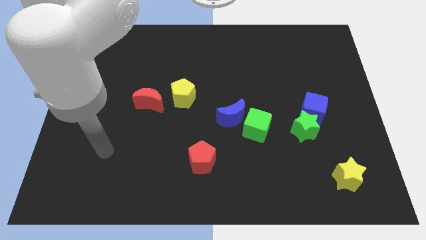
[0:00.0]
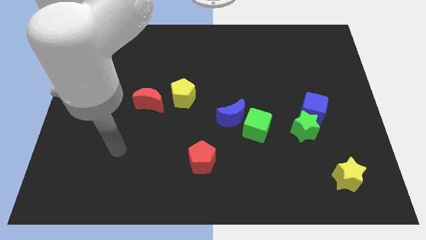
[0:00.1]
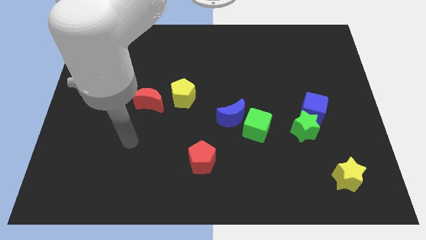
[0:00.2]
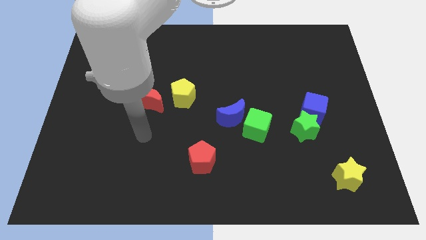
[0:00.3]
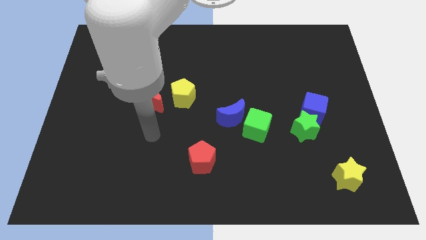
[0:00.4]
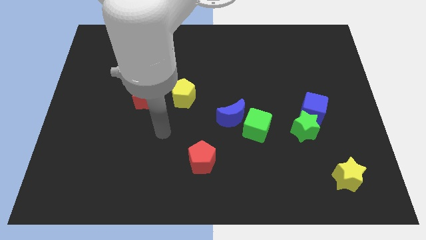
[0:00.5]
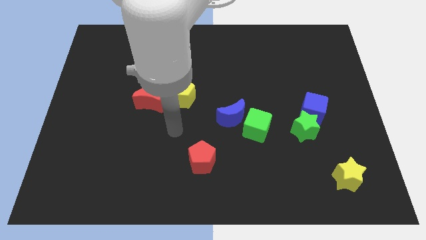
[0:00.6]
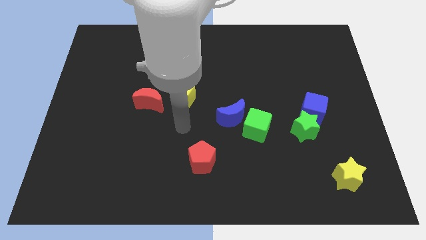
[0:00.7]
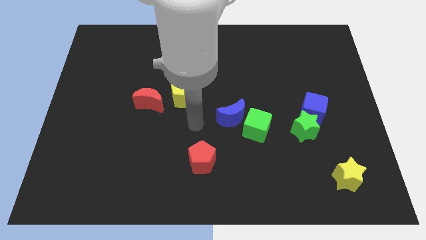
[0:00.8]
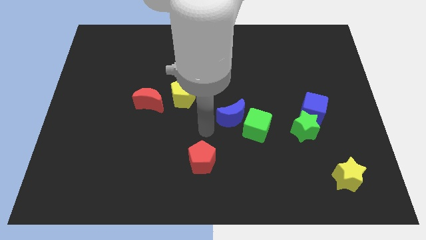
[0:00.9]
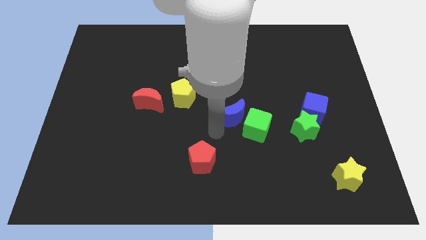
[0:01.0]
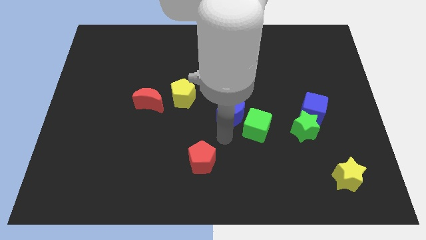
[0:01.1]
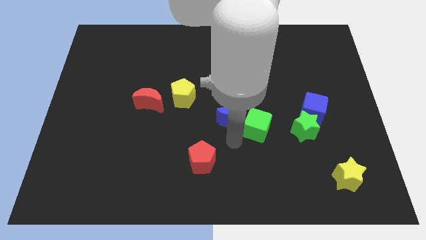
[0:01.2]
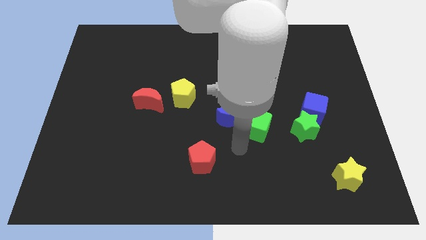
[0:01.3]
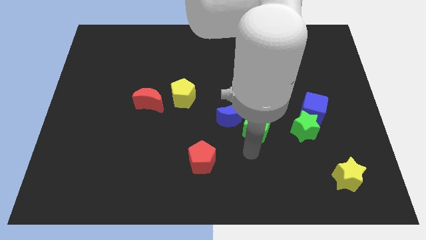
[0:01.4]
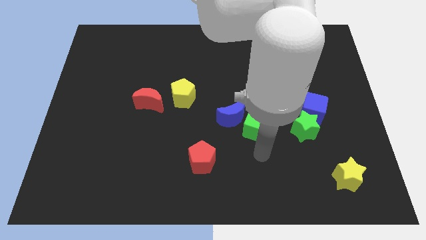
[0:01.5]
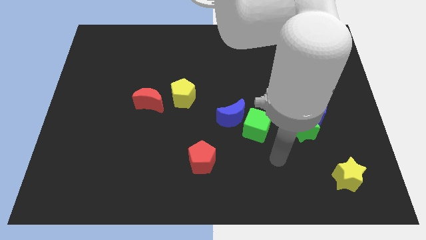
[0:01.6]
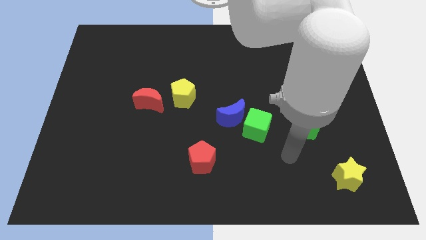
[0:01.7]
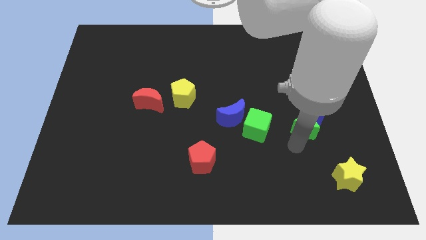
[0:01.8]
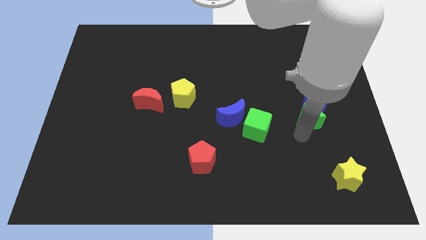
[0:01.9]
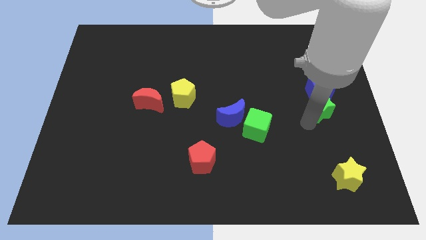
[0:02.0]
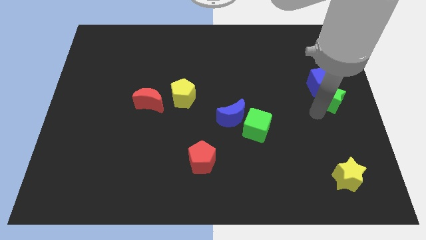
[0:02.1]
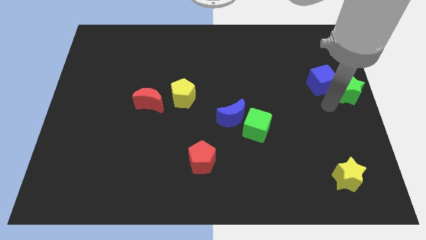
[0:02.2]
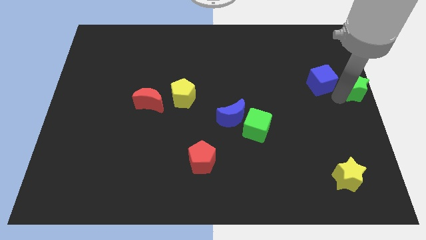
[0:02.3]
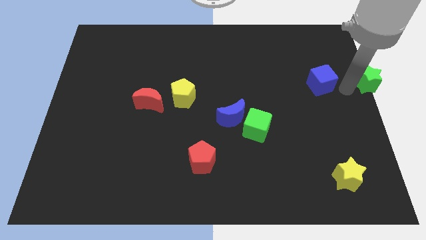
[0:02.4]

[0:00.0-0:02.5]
move the blue cube away from the green star

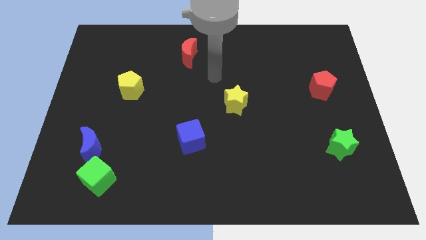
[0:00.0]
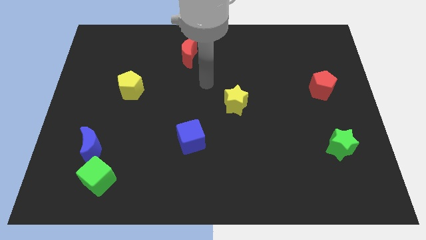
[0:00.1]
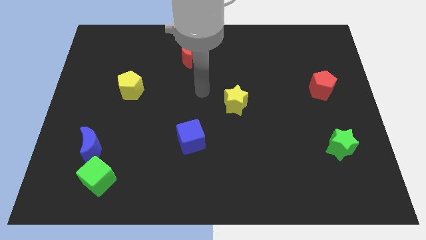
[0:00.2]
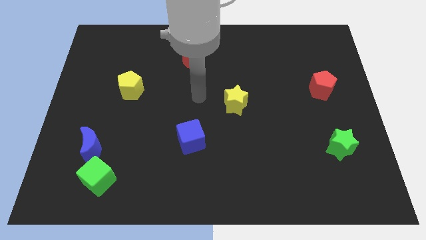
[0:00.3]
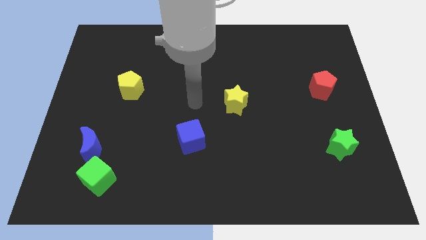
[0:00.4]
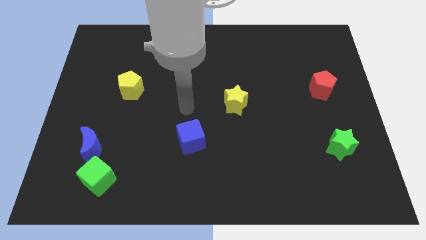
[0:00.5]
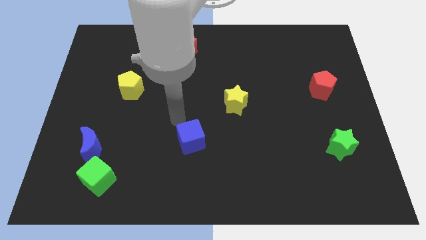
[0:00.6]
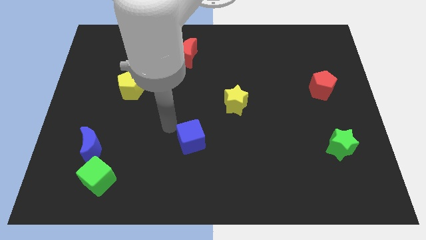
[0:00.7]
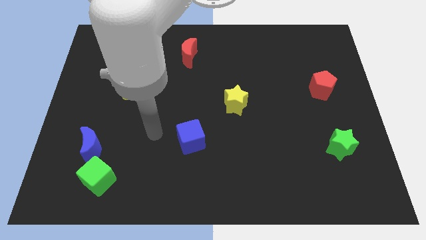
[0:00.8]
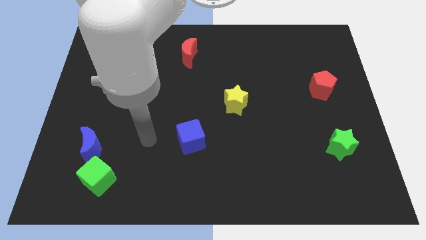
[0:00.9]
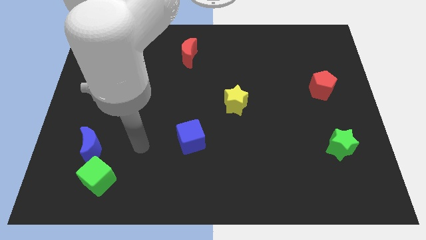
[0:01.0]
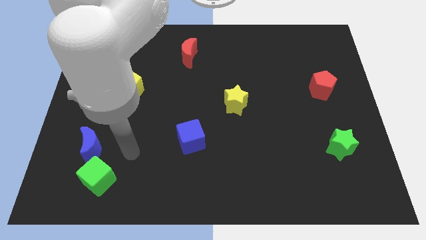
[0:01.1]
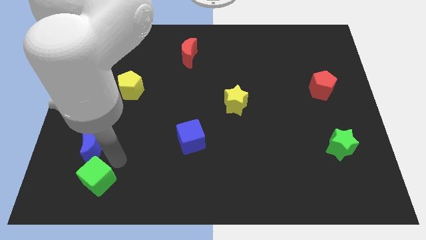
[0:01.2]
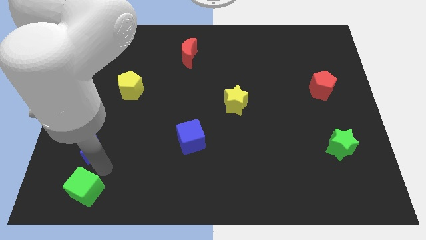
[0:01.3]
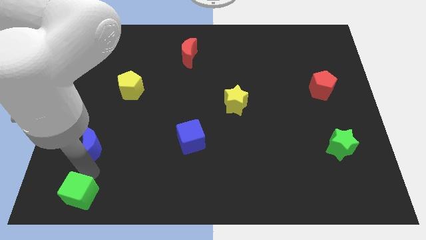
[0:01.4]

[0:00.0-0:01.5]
separate the blue moon from the green cube

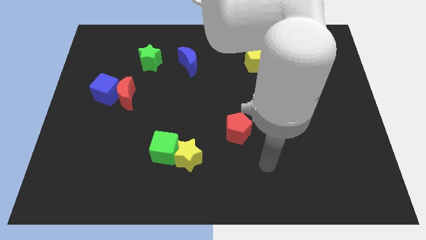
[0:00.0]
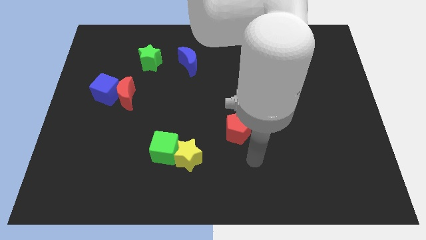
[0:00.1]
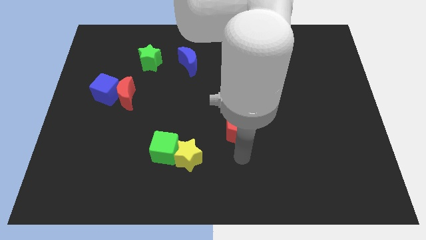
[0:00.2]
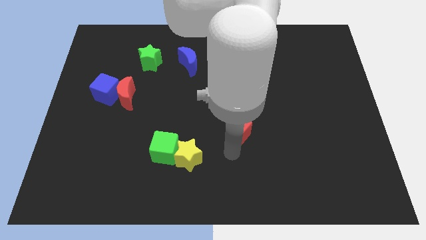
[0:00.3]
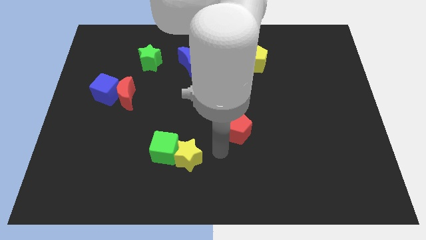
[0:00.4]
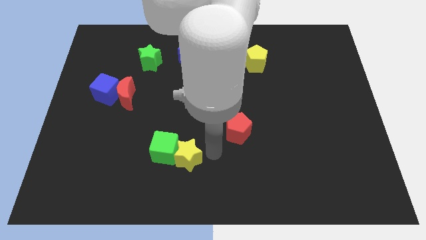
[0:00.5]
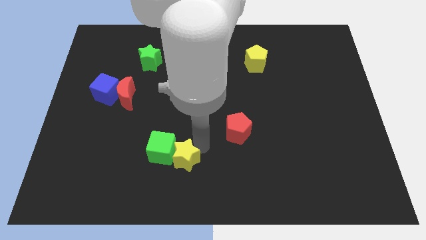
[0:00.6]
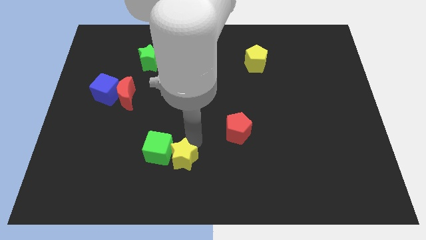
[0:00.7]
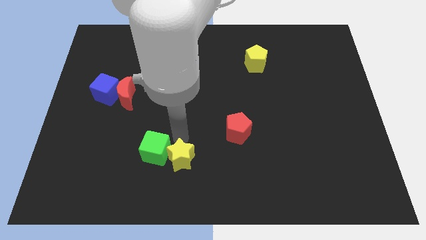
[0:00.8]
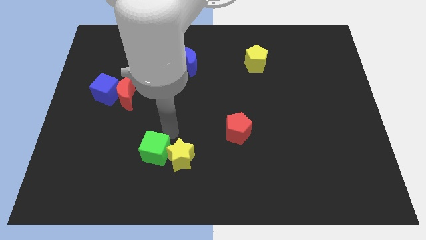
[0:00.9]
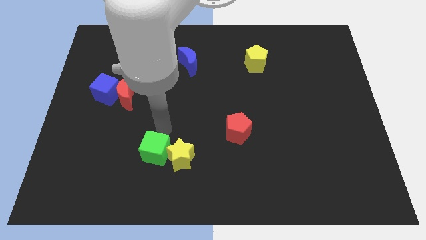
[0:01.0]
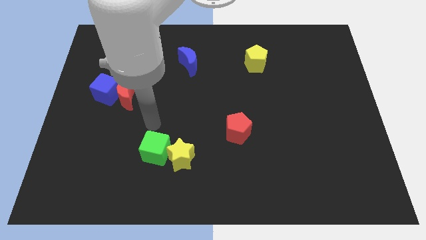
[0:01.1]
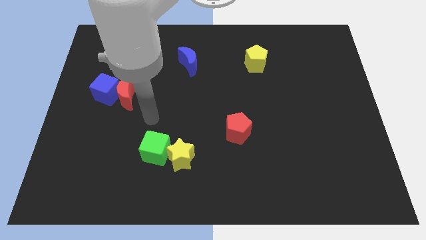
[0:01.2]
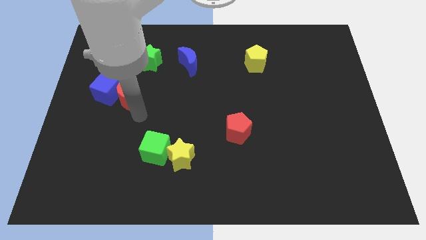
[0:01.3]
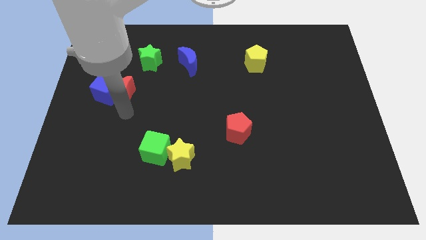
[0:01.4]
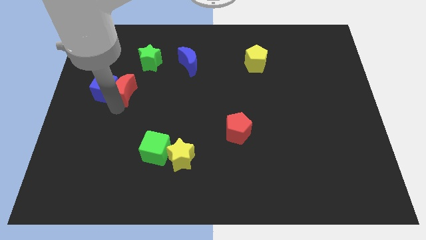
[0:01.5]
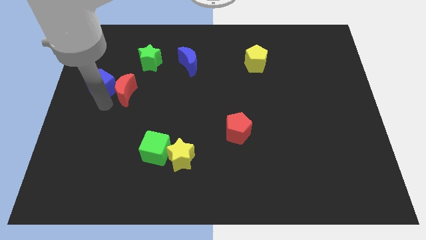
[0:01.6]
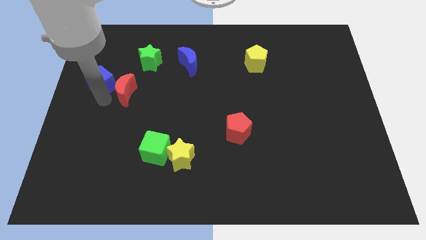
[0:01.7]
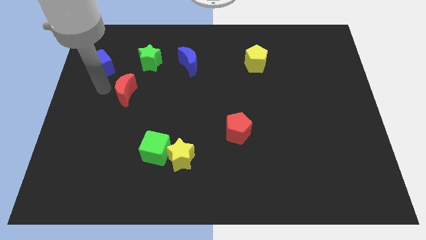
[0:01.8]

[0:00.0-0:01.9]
separate the red moon from the blue cube

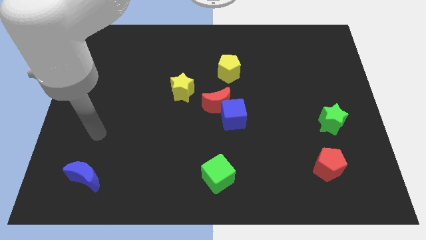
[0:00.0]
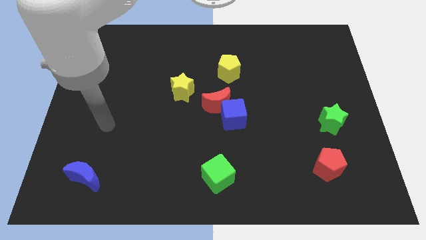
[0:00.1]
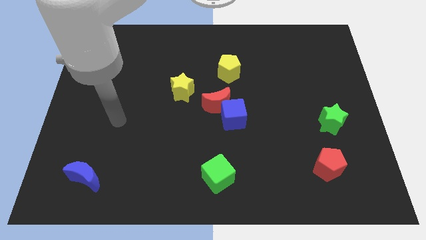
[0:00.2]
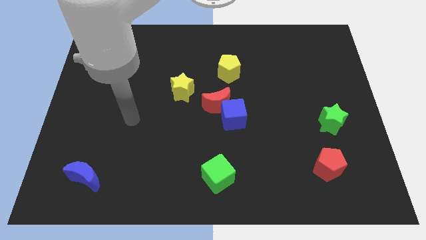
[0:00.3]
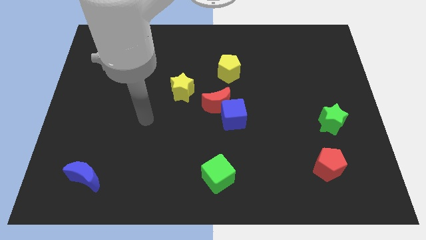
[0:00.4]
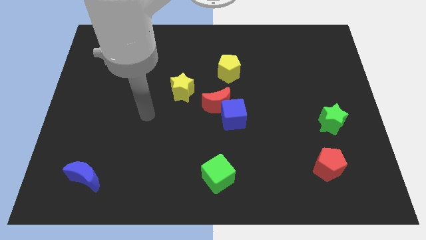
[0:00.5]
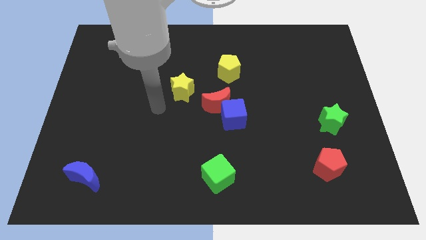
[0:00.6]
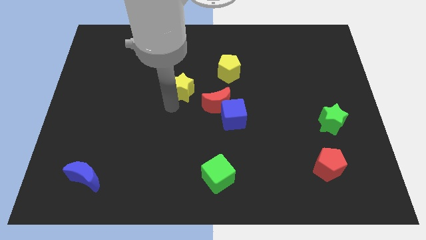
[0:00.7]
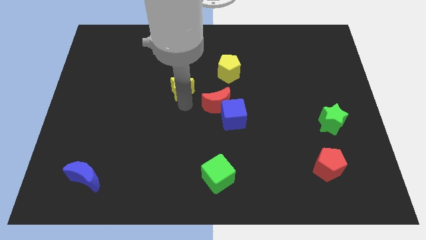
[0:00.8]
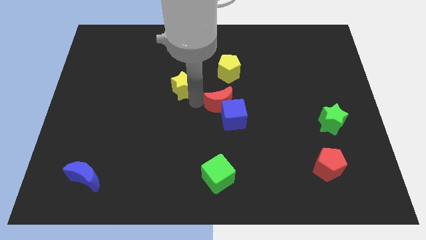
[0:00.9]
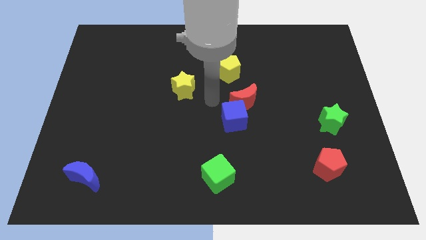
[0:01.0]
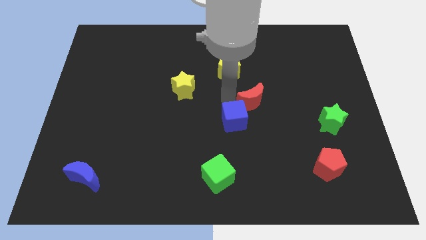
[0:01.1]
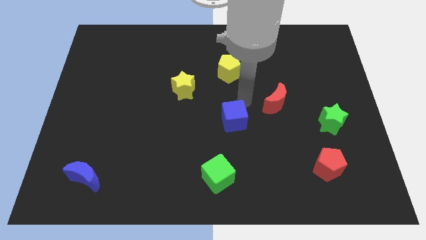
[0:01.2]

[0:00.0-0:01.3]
pull the blue cube apart from the red moon

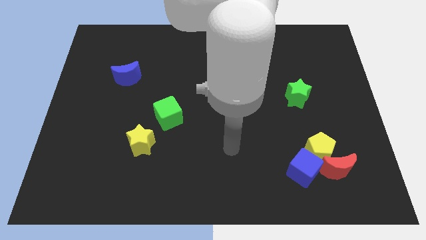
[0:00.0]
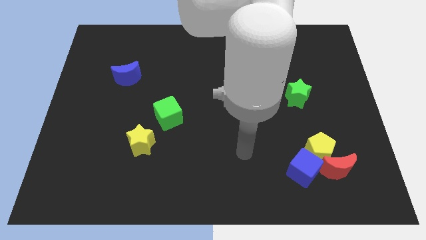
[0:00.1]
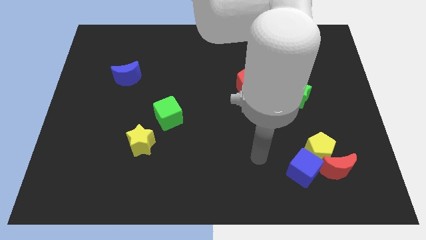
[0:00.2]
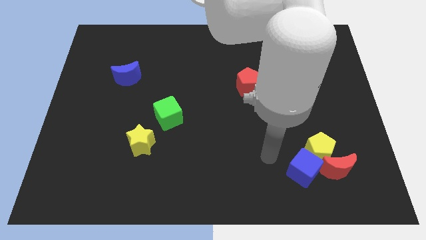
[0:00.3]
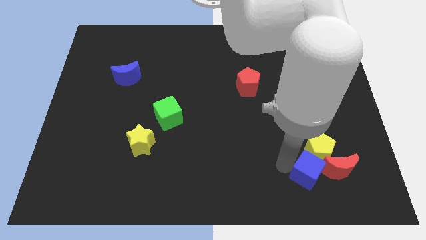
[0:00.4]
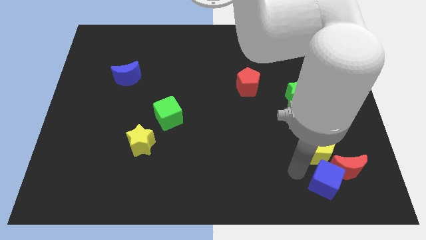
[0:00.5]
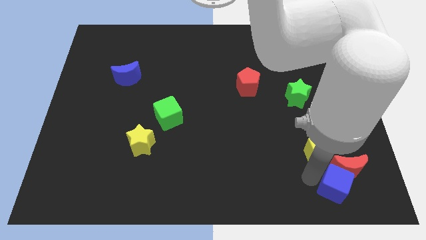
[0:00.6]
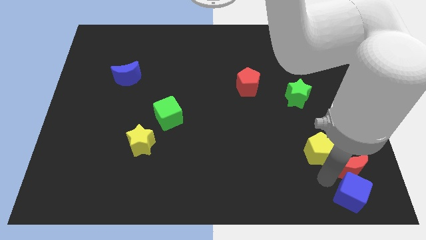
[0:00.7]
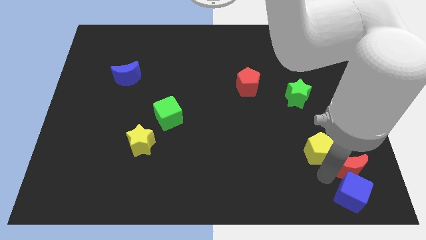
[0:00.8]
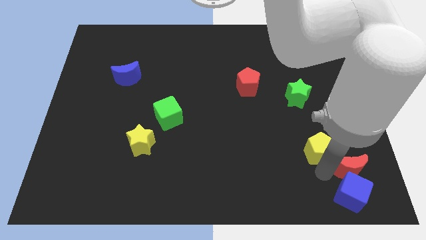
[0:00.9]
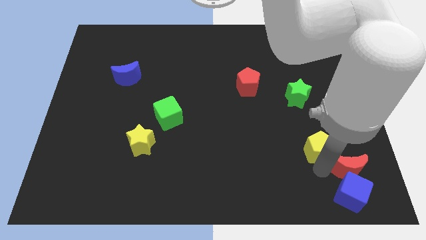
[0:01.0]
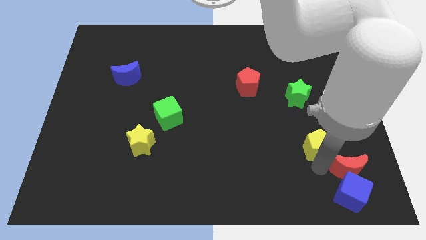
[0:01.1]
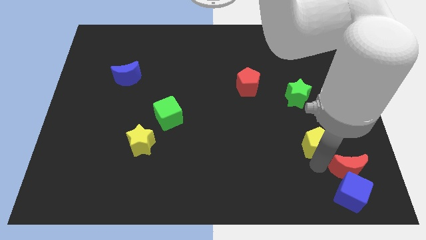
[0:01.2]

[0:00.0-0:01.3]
pull the yellow pentagon apart from the red moon and blue cube

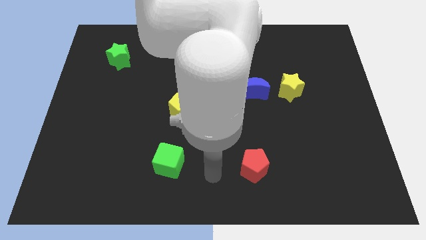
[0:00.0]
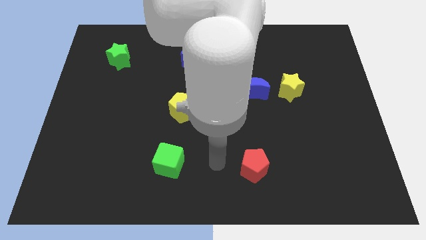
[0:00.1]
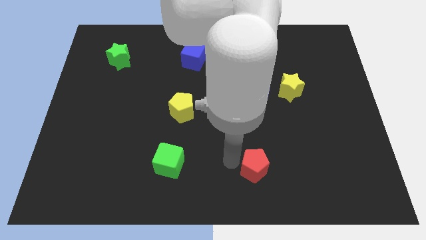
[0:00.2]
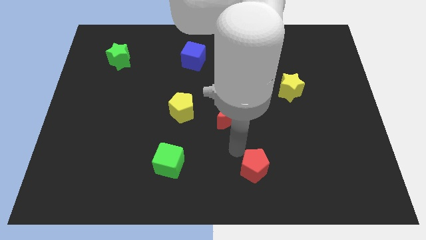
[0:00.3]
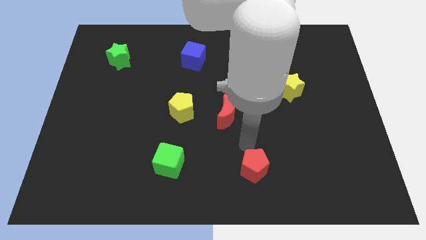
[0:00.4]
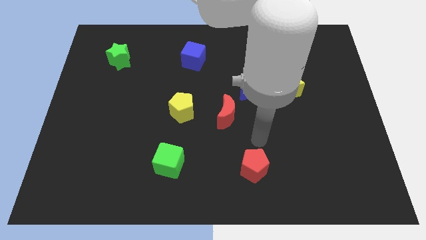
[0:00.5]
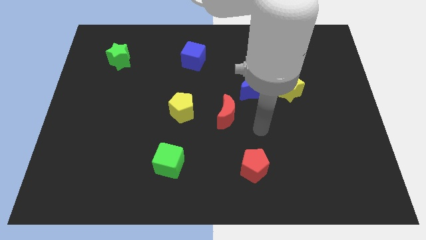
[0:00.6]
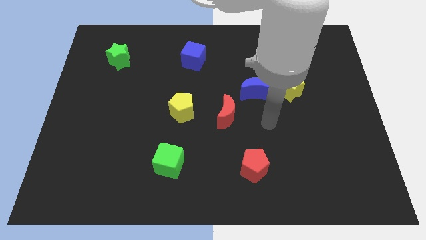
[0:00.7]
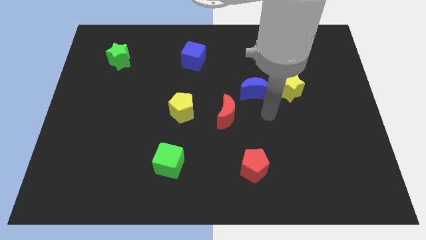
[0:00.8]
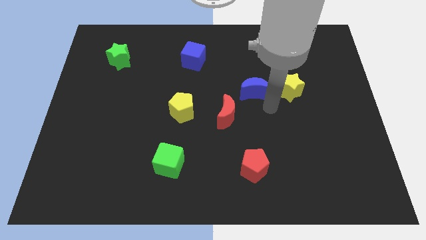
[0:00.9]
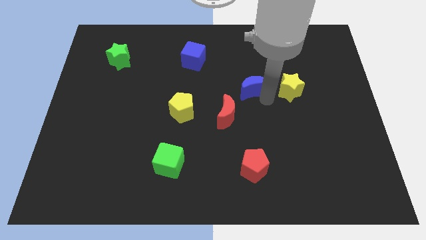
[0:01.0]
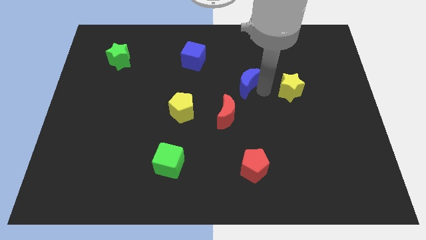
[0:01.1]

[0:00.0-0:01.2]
pull the yellow star apart from the blue moon
